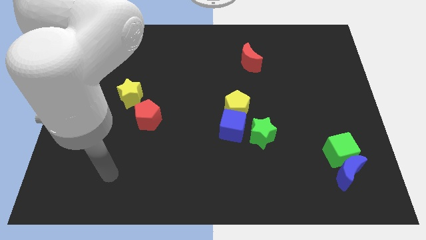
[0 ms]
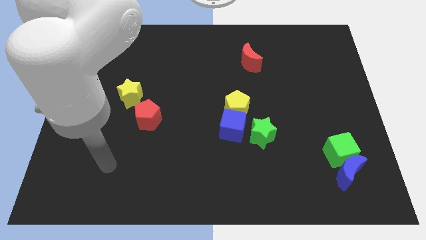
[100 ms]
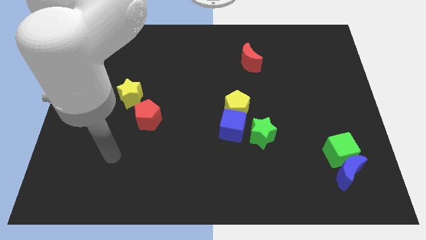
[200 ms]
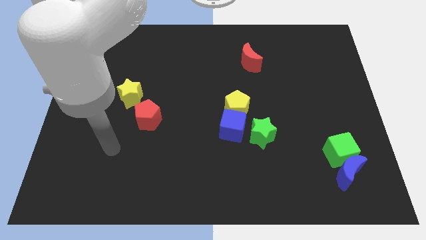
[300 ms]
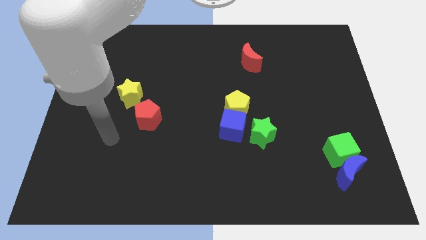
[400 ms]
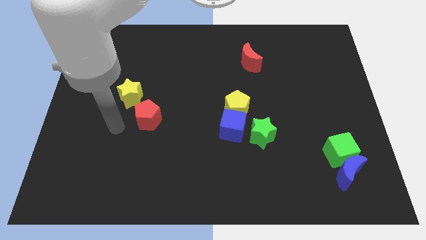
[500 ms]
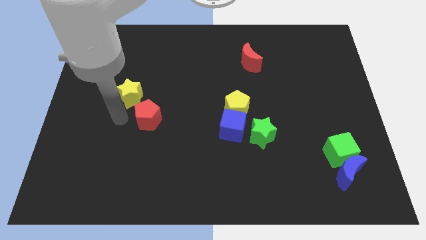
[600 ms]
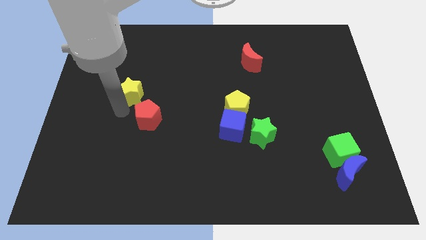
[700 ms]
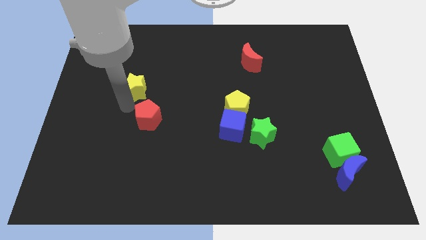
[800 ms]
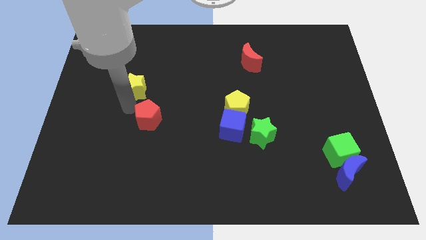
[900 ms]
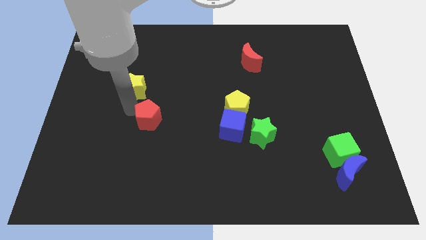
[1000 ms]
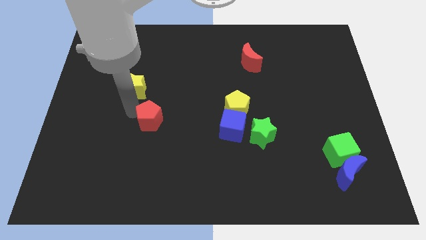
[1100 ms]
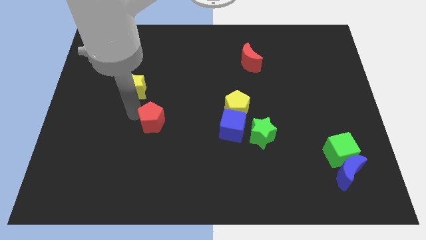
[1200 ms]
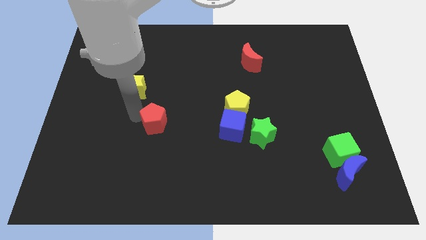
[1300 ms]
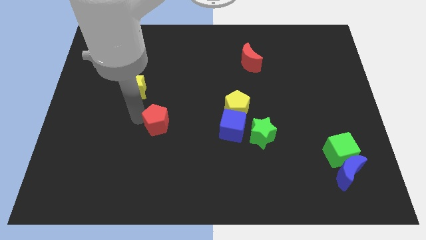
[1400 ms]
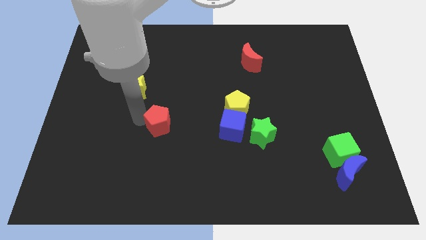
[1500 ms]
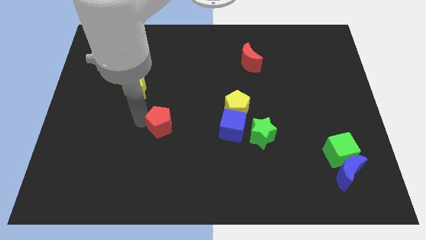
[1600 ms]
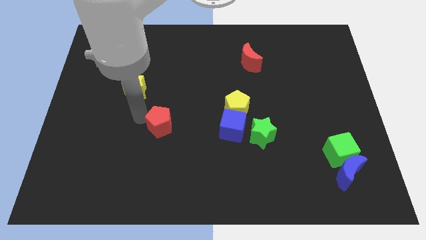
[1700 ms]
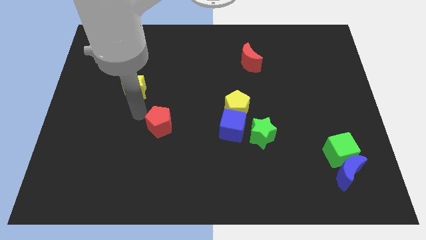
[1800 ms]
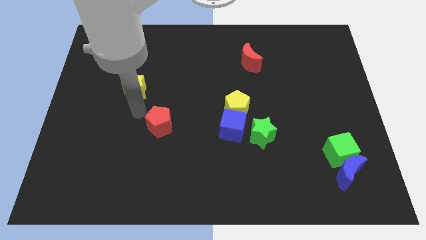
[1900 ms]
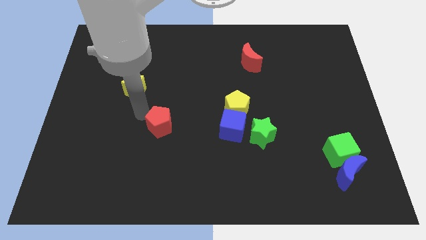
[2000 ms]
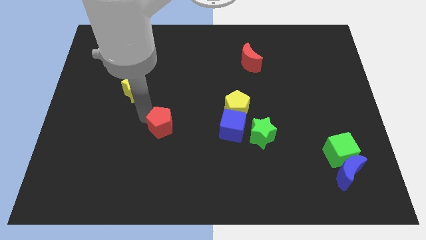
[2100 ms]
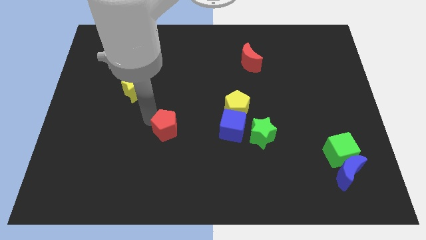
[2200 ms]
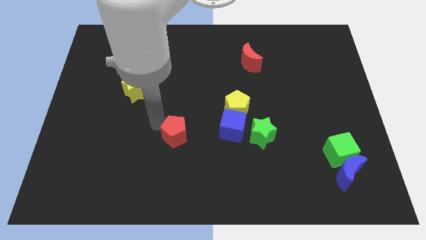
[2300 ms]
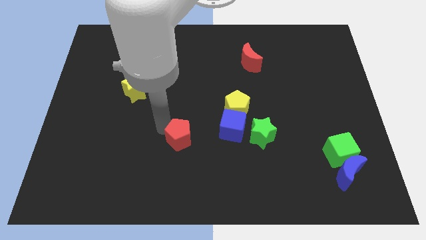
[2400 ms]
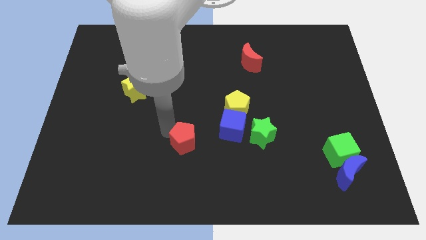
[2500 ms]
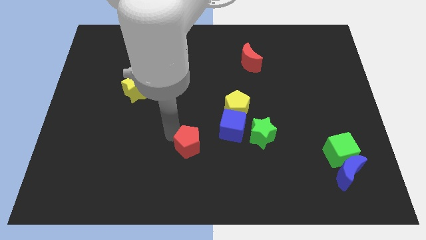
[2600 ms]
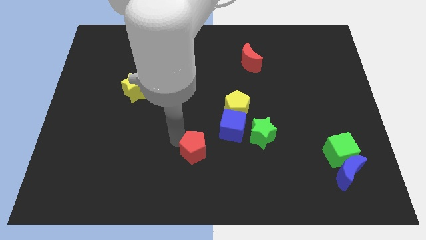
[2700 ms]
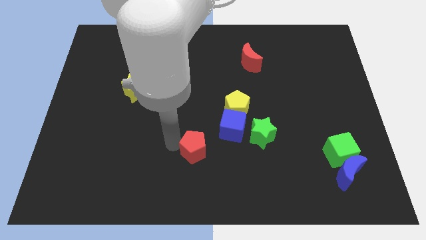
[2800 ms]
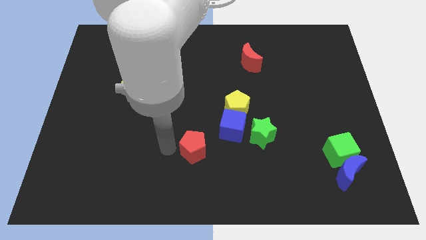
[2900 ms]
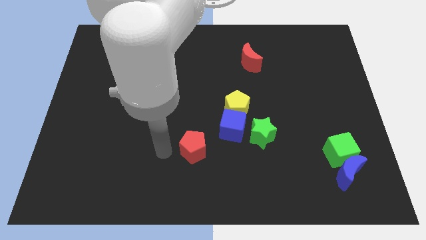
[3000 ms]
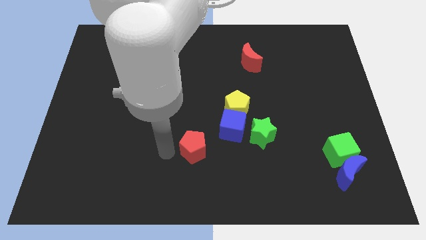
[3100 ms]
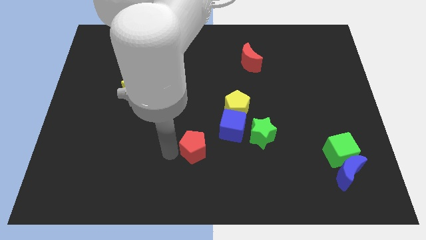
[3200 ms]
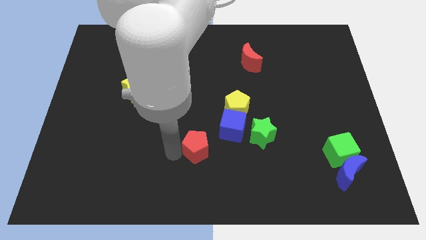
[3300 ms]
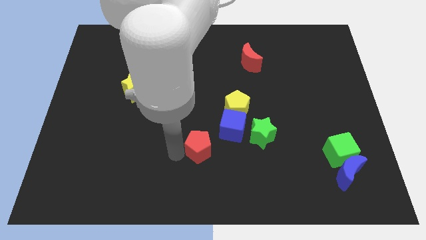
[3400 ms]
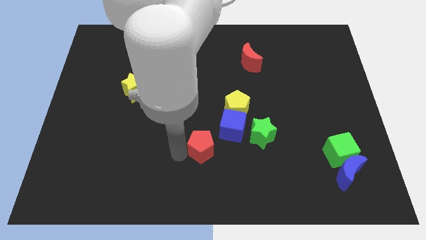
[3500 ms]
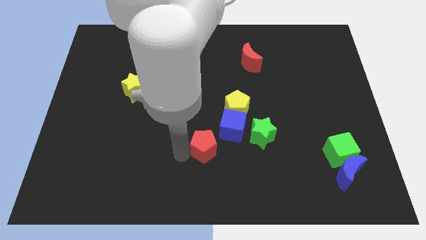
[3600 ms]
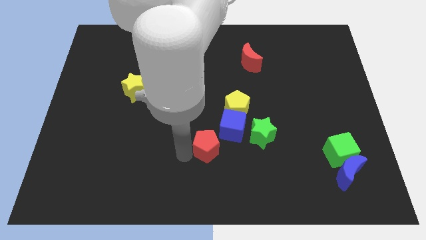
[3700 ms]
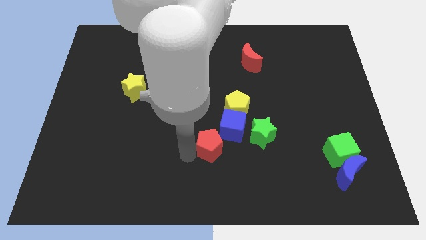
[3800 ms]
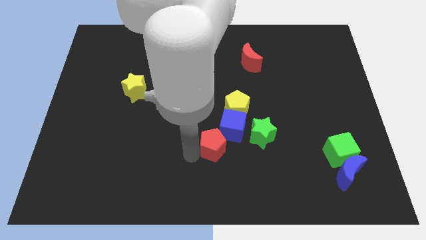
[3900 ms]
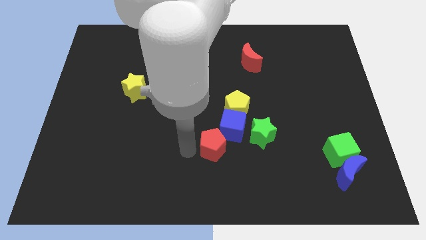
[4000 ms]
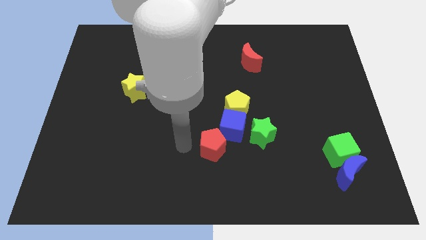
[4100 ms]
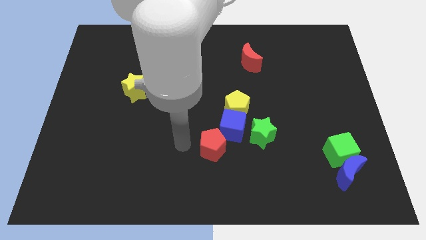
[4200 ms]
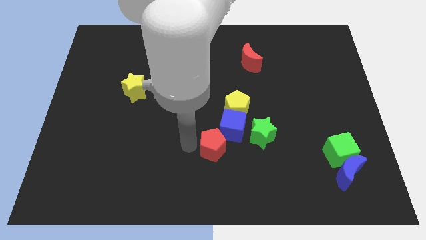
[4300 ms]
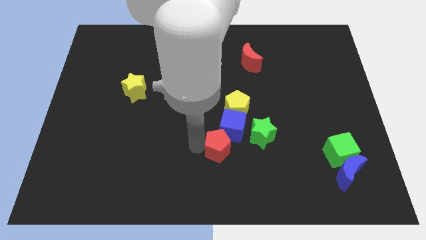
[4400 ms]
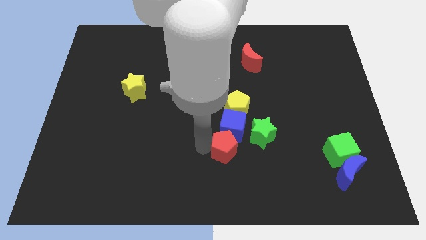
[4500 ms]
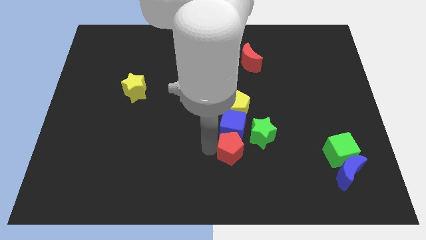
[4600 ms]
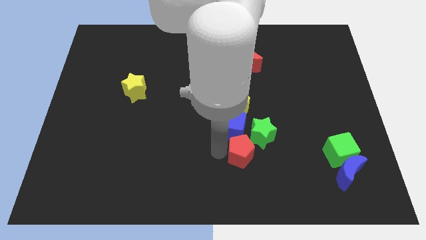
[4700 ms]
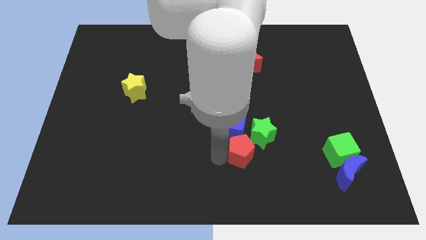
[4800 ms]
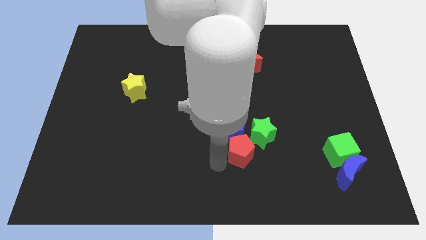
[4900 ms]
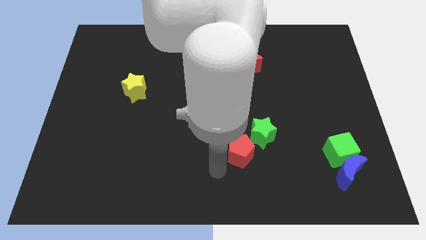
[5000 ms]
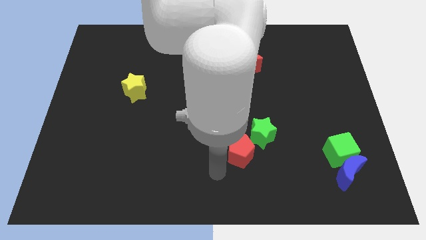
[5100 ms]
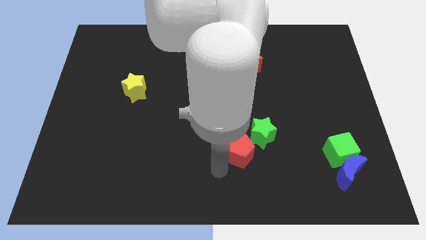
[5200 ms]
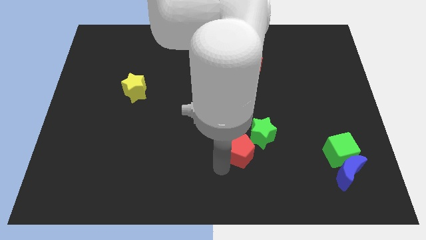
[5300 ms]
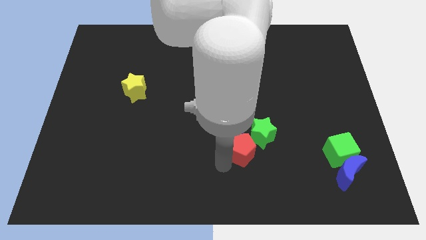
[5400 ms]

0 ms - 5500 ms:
slide the red pentagon next to the green star

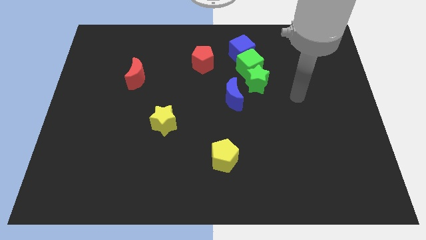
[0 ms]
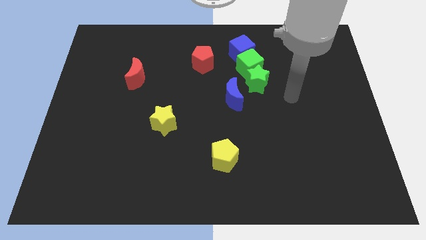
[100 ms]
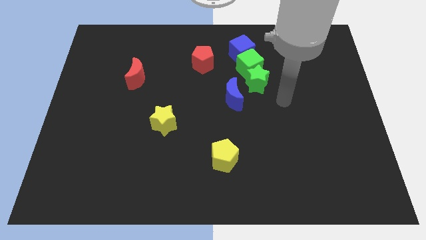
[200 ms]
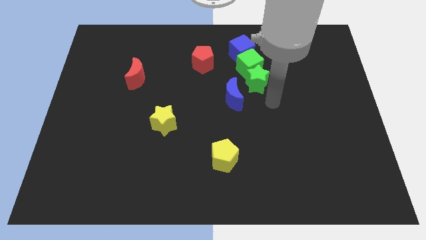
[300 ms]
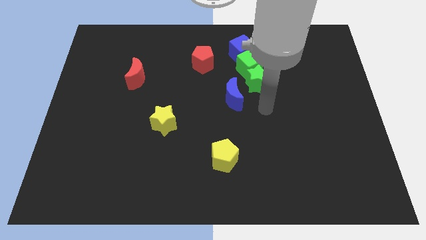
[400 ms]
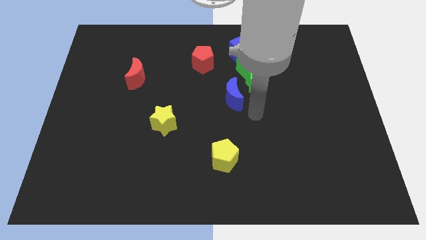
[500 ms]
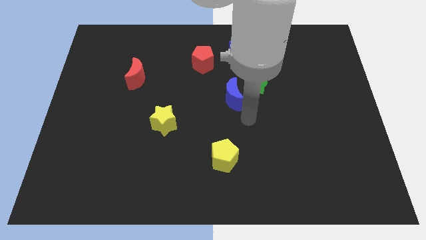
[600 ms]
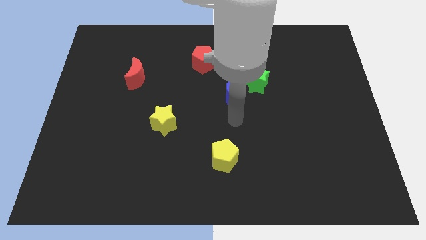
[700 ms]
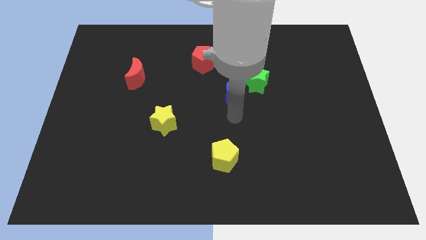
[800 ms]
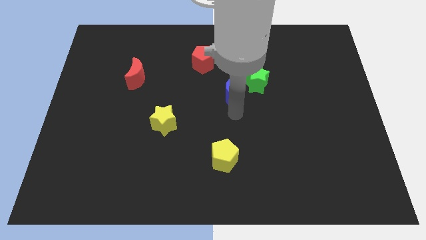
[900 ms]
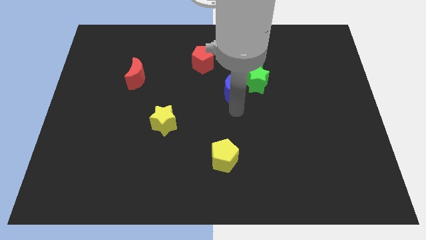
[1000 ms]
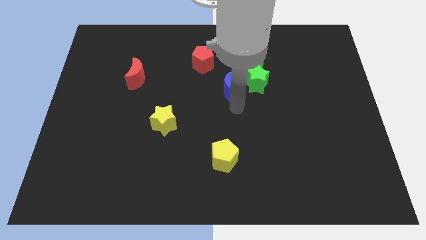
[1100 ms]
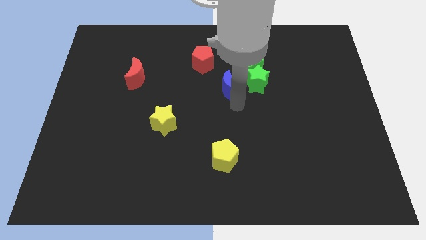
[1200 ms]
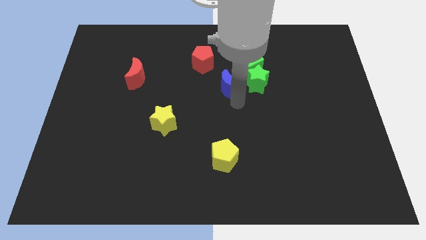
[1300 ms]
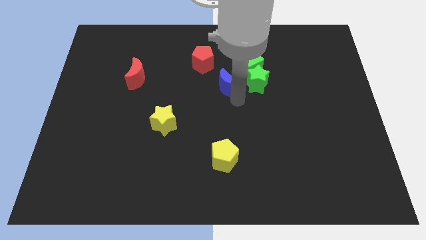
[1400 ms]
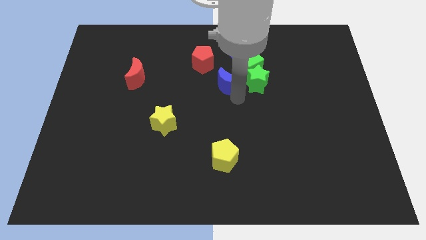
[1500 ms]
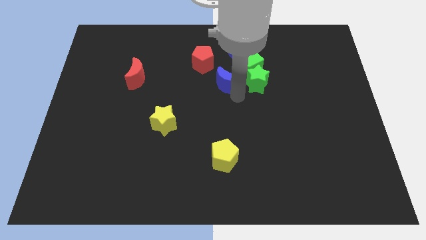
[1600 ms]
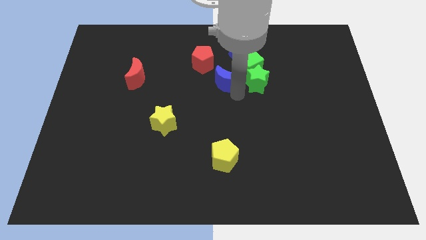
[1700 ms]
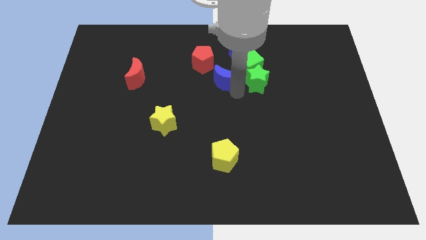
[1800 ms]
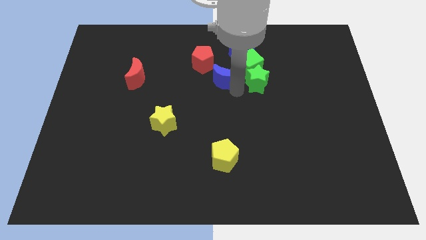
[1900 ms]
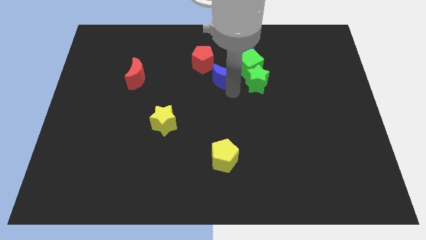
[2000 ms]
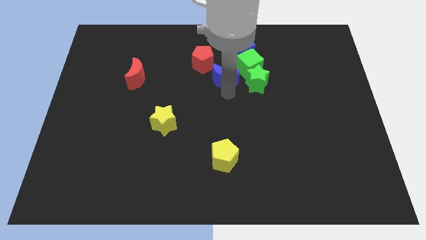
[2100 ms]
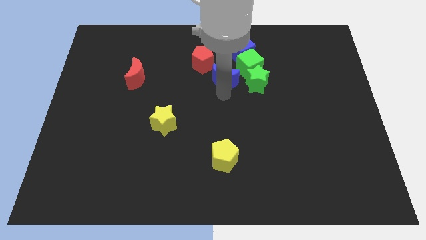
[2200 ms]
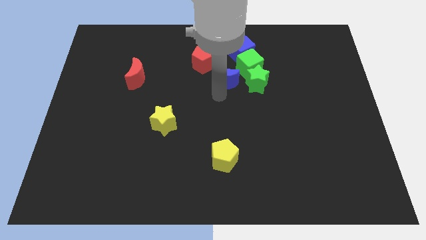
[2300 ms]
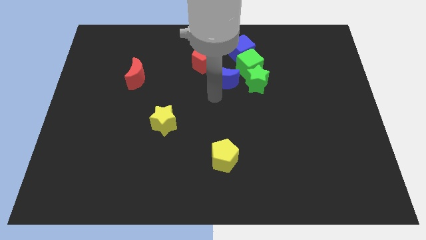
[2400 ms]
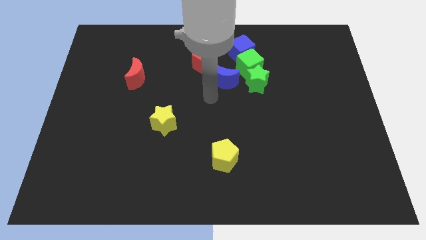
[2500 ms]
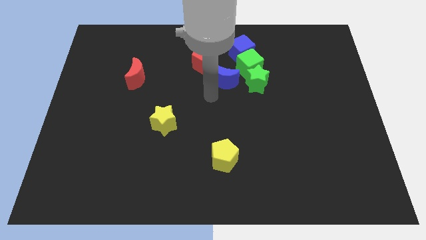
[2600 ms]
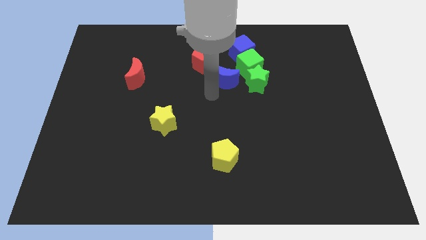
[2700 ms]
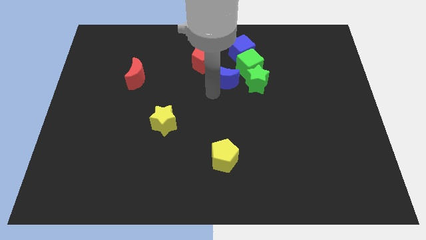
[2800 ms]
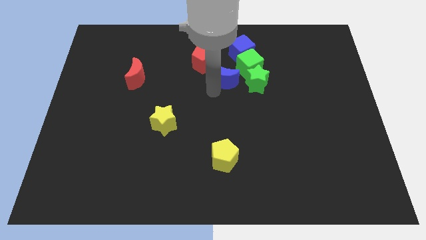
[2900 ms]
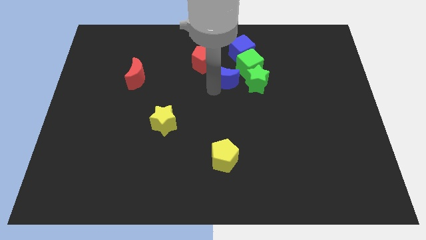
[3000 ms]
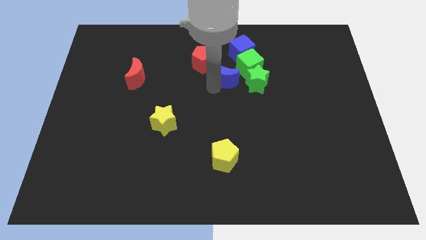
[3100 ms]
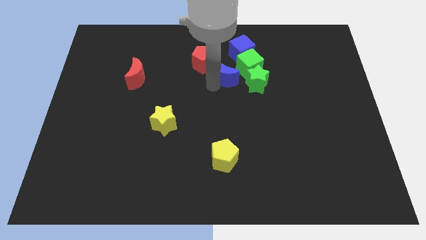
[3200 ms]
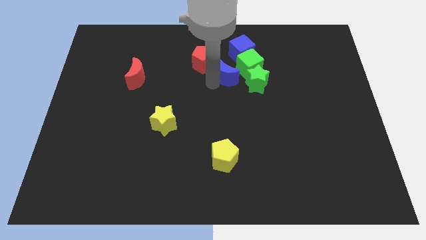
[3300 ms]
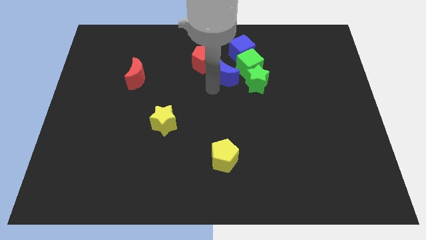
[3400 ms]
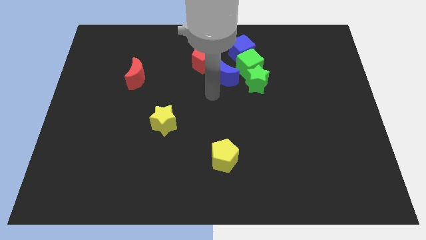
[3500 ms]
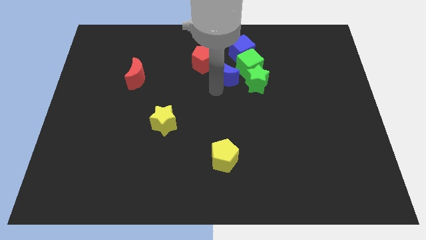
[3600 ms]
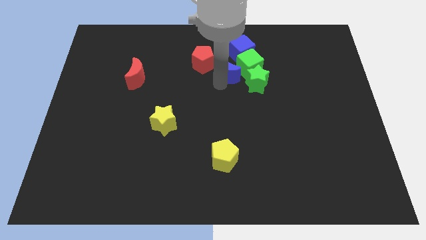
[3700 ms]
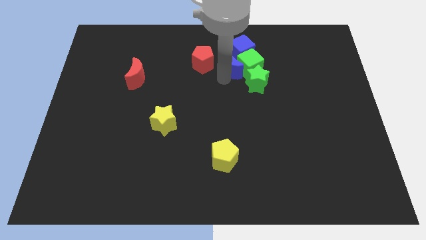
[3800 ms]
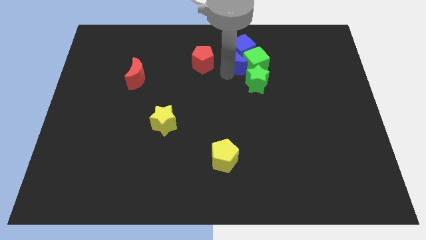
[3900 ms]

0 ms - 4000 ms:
move the blue moon close to the blue cube
